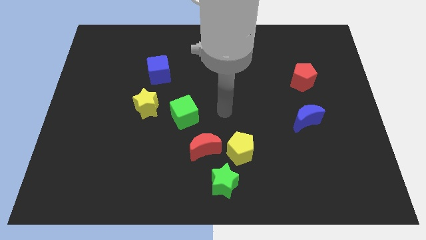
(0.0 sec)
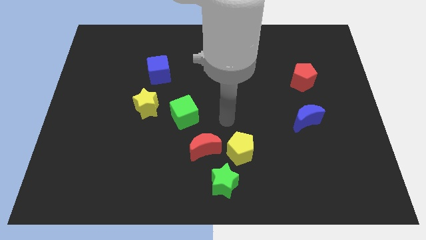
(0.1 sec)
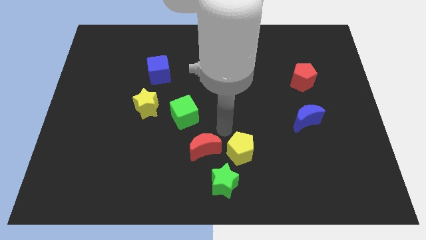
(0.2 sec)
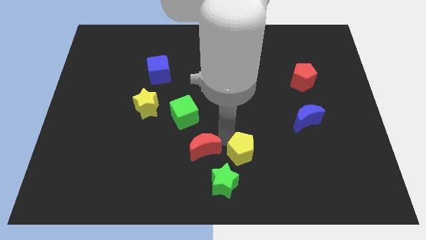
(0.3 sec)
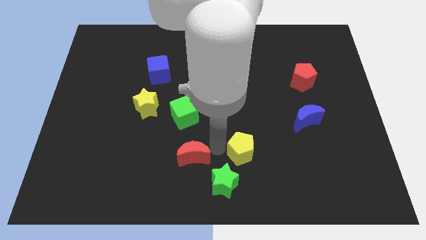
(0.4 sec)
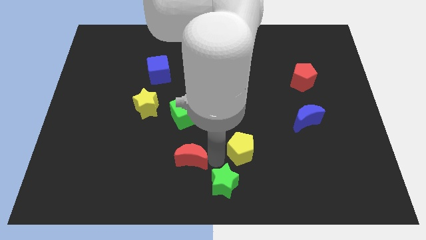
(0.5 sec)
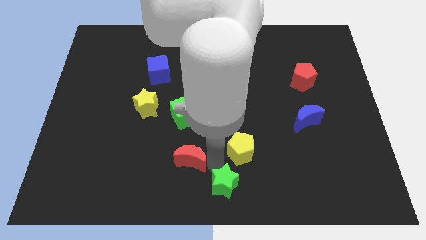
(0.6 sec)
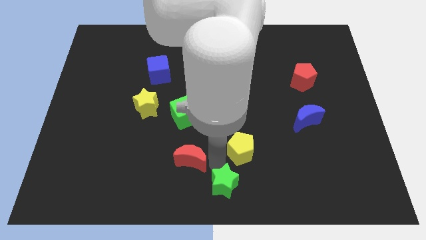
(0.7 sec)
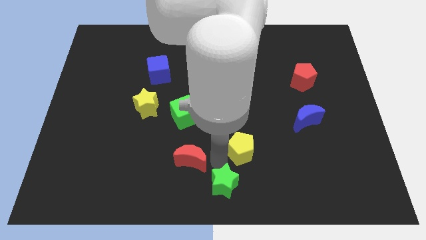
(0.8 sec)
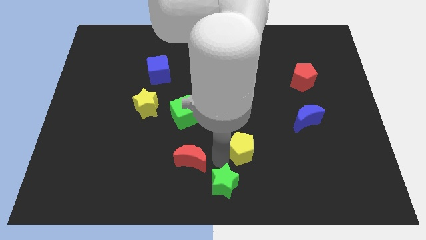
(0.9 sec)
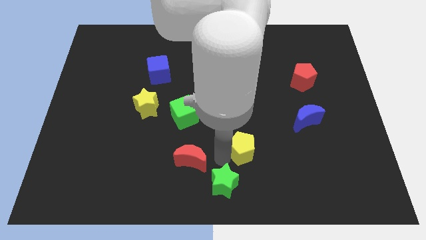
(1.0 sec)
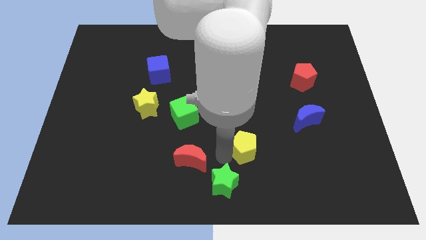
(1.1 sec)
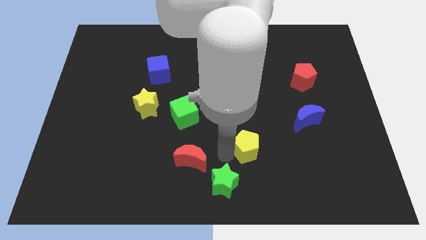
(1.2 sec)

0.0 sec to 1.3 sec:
separate the yellow pentagon from the red moon and green star

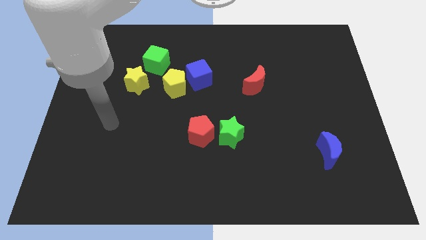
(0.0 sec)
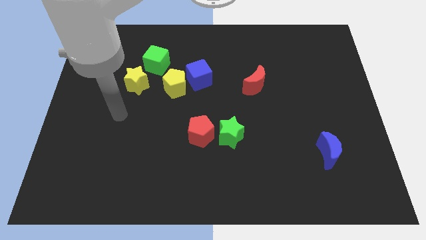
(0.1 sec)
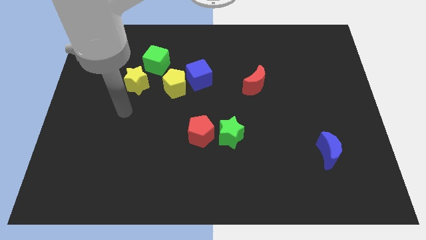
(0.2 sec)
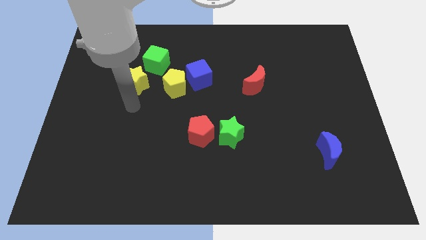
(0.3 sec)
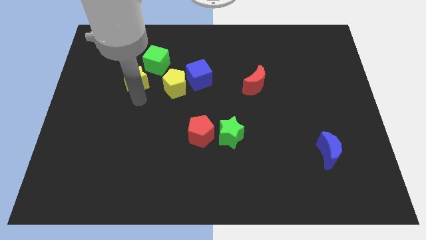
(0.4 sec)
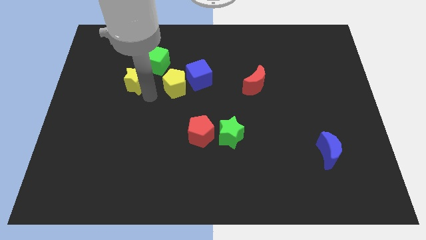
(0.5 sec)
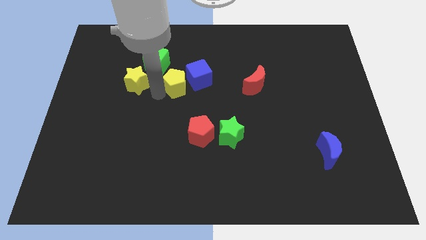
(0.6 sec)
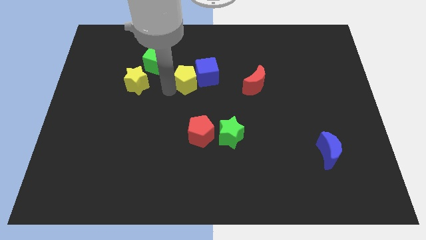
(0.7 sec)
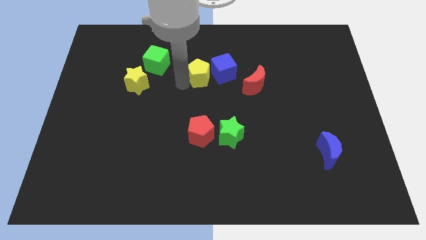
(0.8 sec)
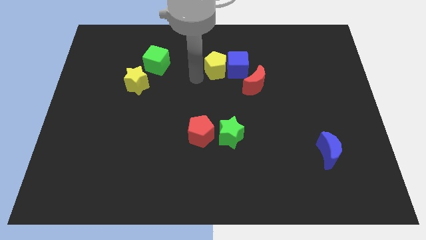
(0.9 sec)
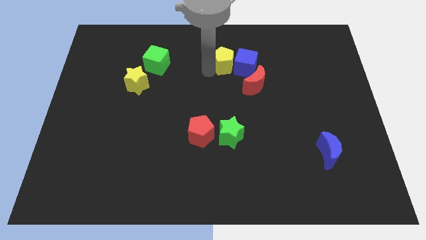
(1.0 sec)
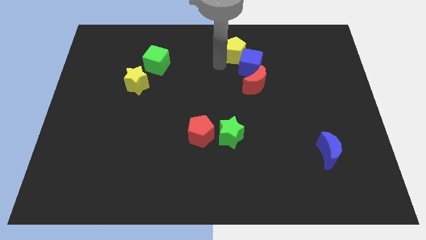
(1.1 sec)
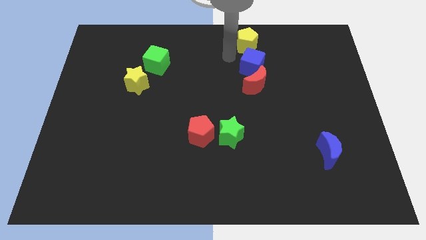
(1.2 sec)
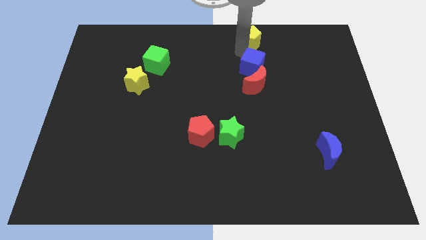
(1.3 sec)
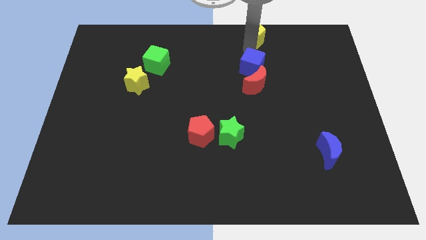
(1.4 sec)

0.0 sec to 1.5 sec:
pull the blue cube apart from the yellow pentagon

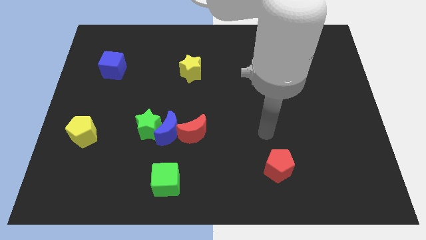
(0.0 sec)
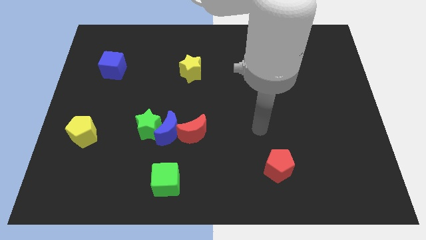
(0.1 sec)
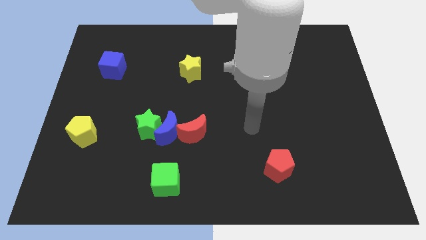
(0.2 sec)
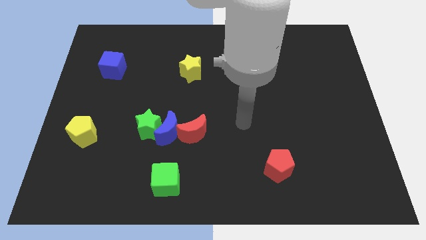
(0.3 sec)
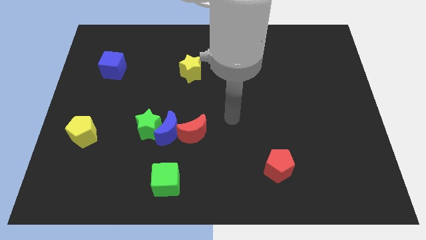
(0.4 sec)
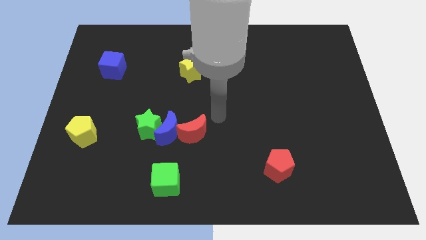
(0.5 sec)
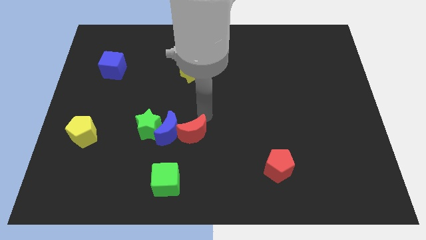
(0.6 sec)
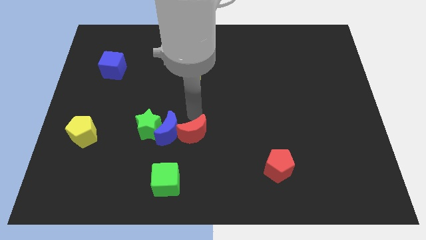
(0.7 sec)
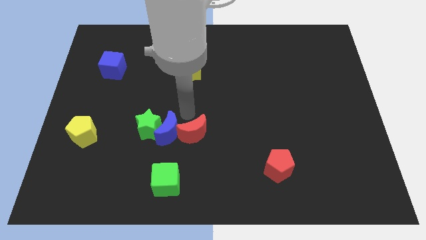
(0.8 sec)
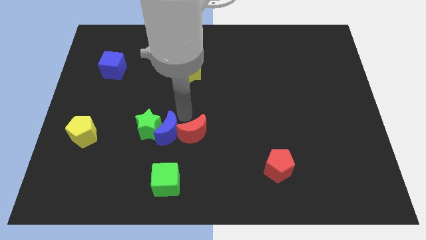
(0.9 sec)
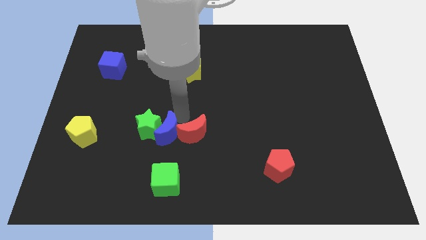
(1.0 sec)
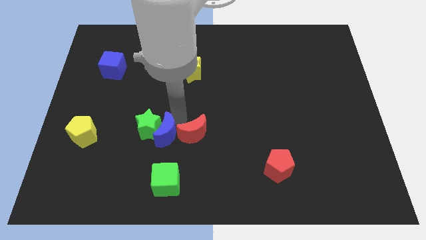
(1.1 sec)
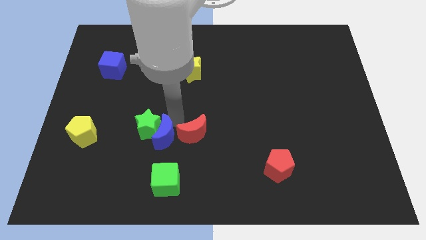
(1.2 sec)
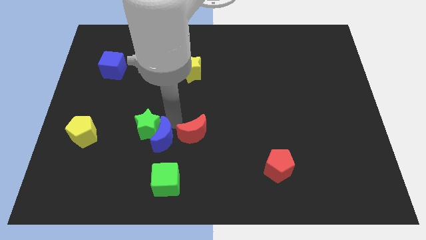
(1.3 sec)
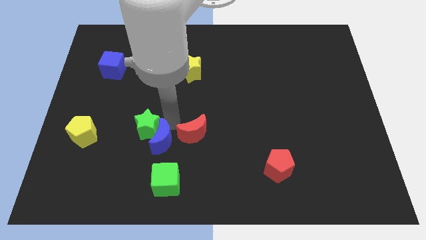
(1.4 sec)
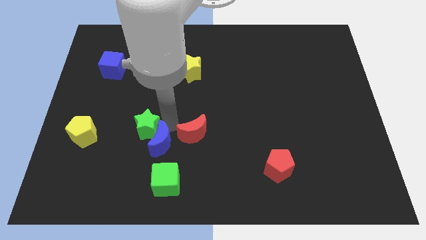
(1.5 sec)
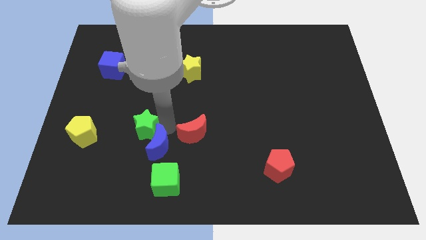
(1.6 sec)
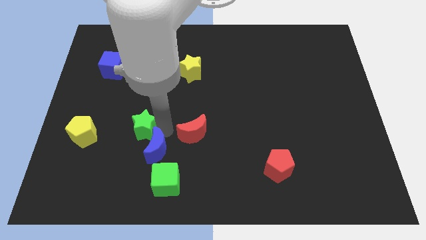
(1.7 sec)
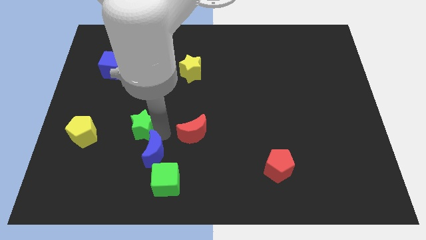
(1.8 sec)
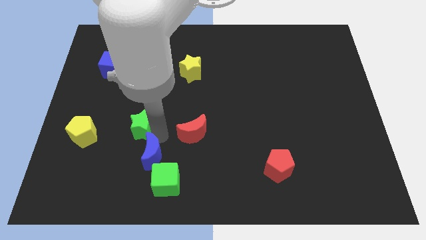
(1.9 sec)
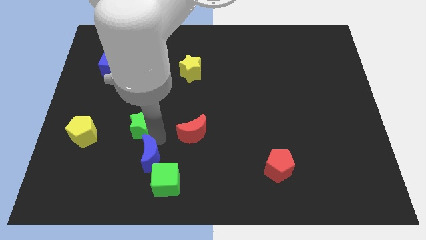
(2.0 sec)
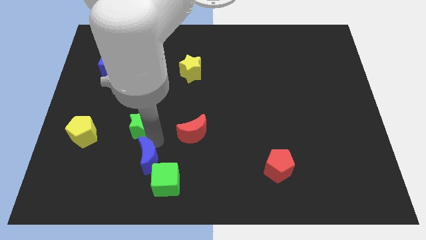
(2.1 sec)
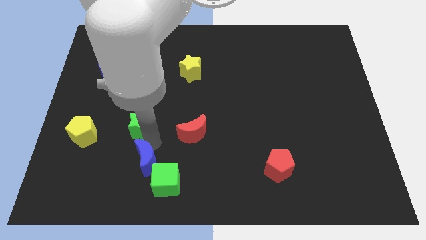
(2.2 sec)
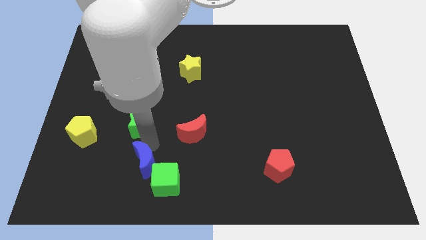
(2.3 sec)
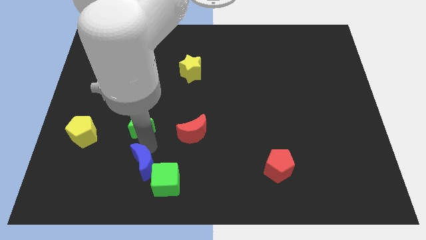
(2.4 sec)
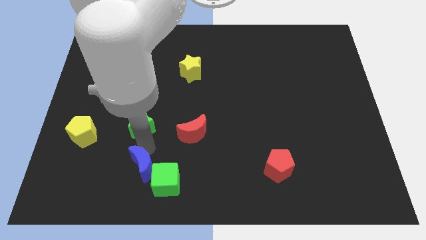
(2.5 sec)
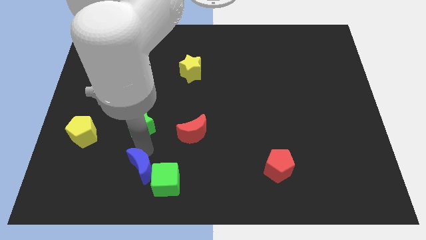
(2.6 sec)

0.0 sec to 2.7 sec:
separate the blue moon from the green star and red moon

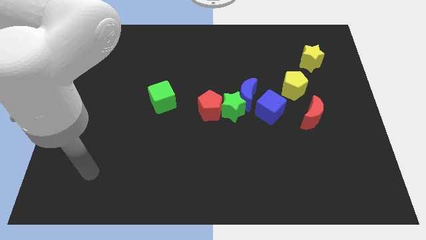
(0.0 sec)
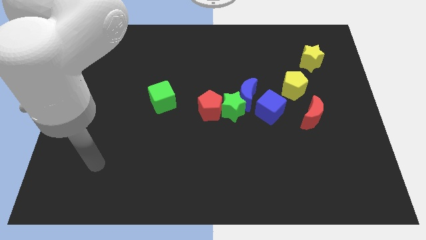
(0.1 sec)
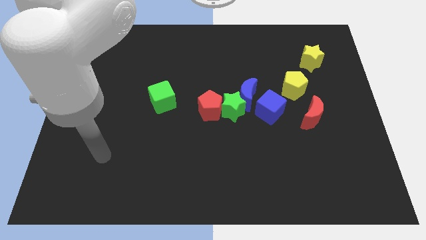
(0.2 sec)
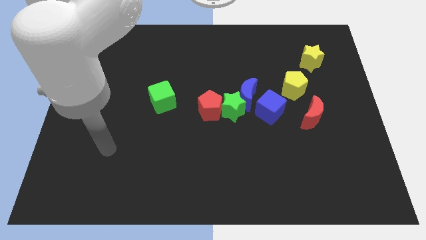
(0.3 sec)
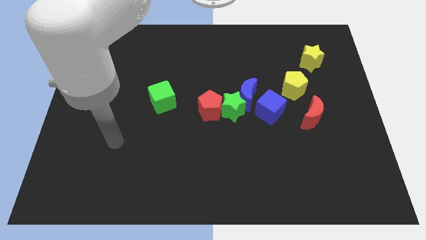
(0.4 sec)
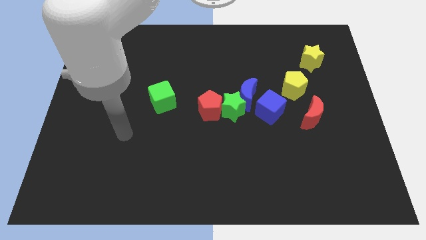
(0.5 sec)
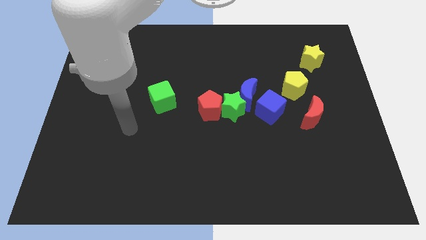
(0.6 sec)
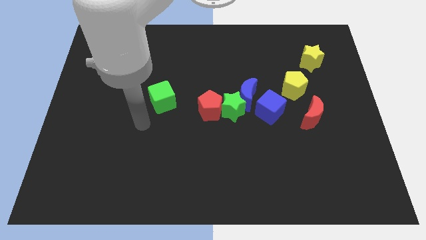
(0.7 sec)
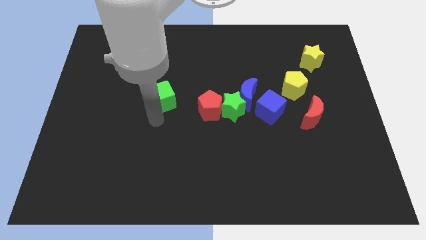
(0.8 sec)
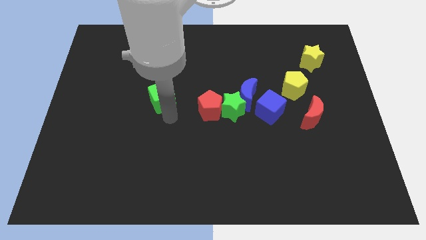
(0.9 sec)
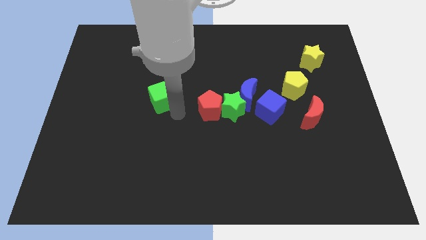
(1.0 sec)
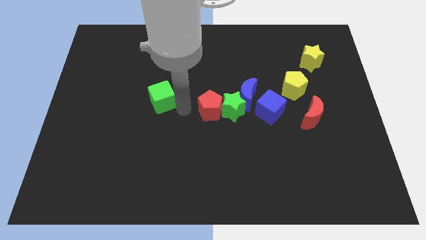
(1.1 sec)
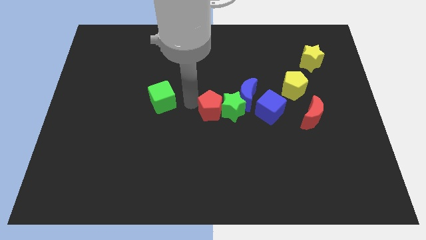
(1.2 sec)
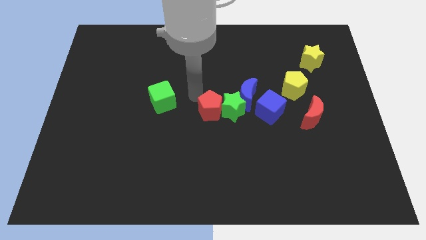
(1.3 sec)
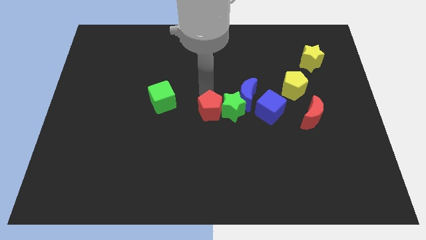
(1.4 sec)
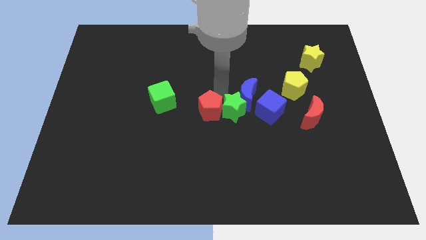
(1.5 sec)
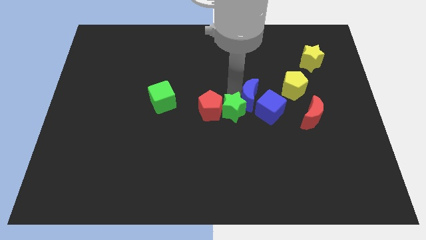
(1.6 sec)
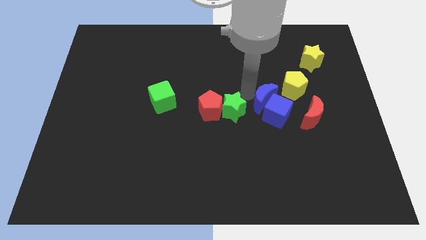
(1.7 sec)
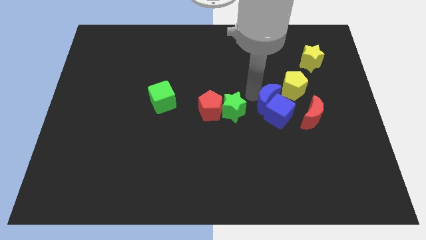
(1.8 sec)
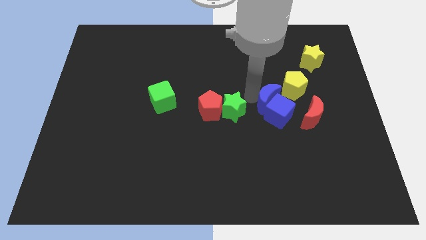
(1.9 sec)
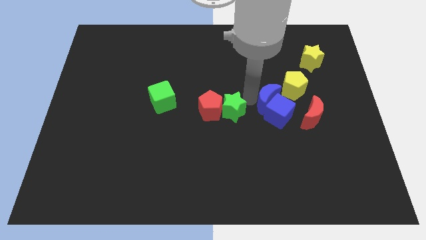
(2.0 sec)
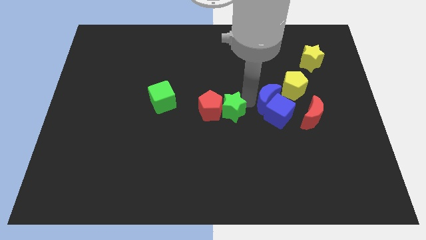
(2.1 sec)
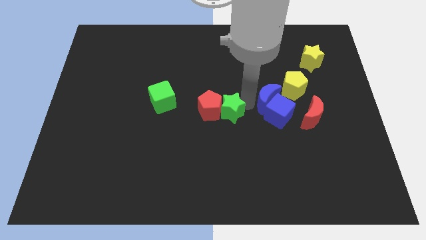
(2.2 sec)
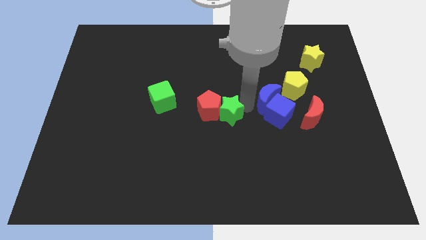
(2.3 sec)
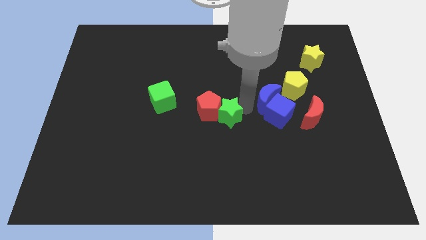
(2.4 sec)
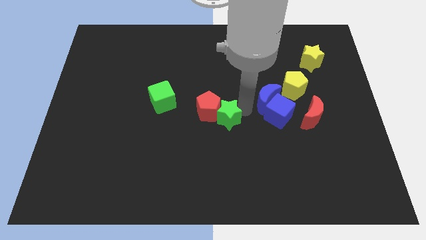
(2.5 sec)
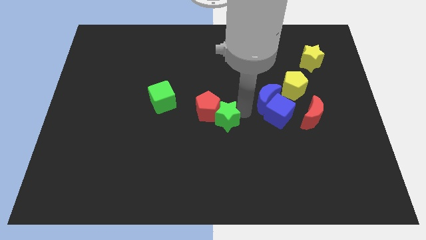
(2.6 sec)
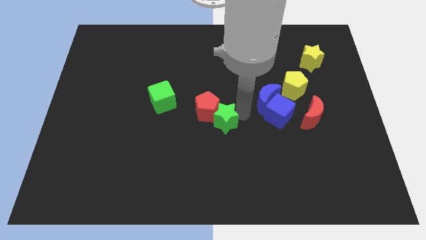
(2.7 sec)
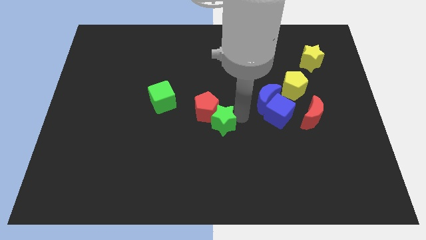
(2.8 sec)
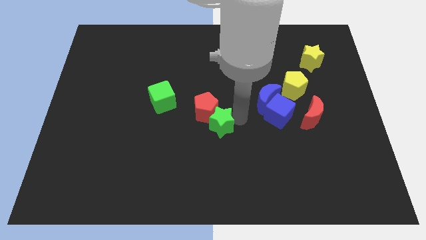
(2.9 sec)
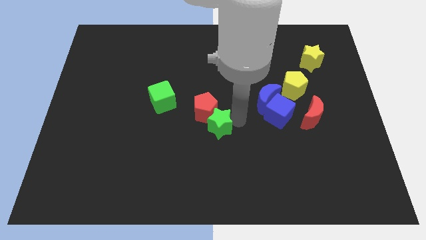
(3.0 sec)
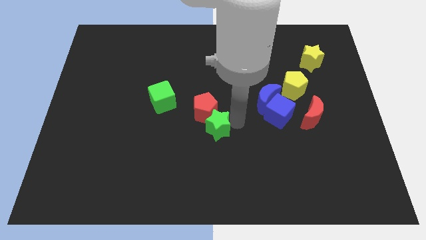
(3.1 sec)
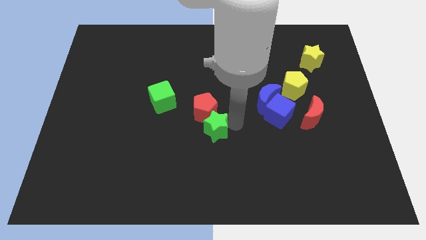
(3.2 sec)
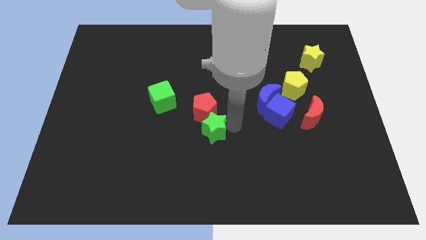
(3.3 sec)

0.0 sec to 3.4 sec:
separate the green star from the group of blocks

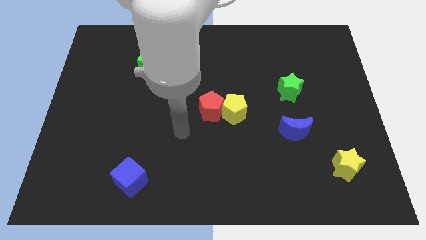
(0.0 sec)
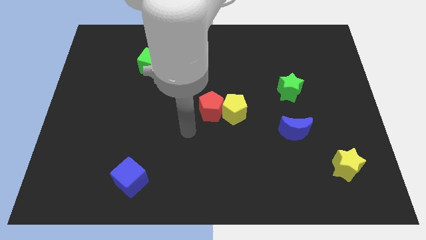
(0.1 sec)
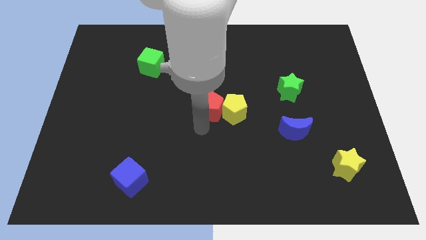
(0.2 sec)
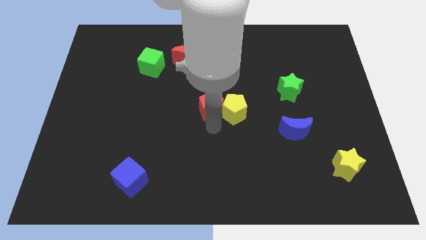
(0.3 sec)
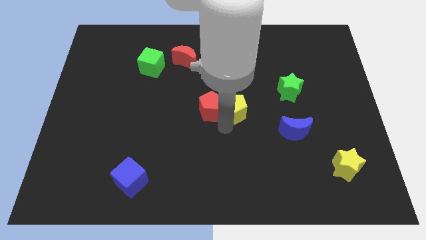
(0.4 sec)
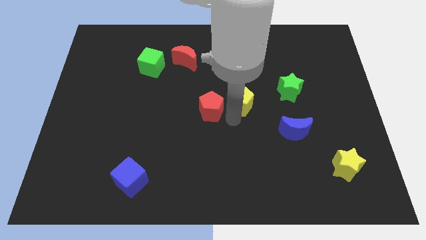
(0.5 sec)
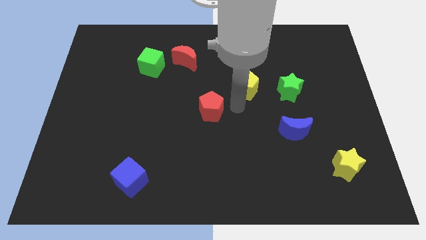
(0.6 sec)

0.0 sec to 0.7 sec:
move the red pentagon away from the yellow pentagon
